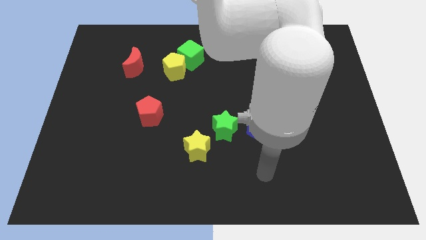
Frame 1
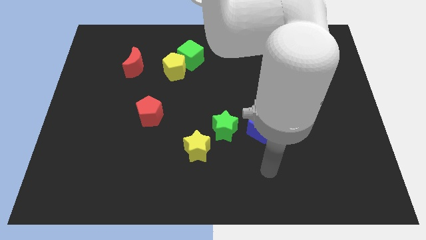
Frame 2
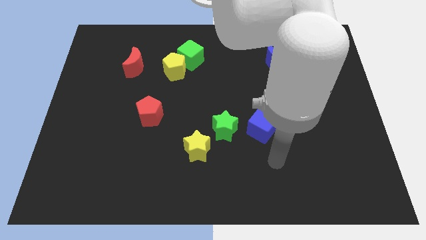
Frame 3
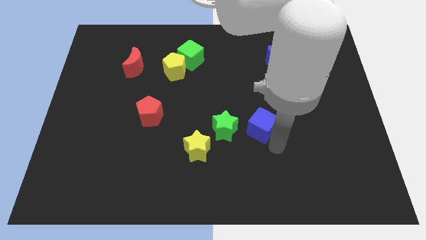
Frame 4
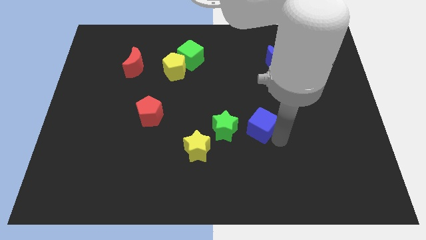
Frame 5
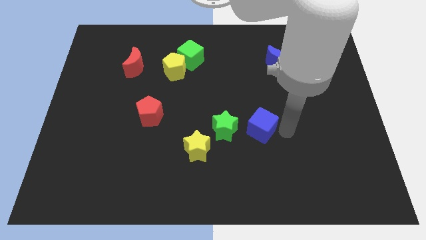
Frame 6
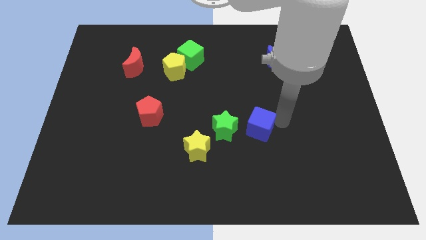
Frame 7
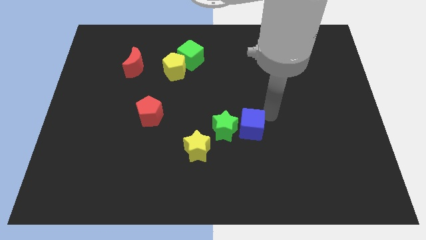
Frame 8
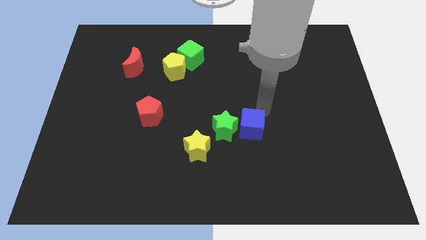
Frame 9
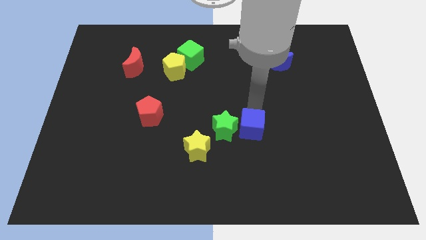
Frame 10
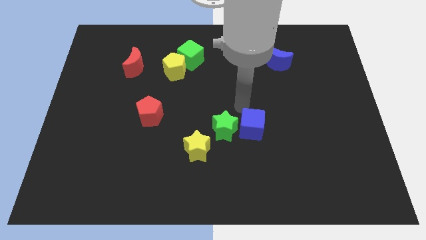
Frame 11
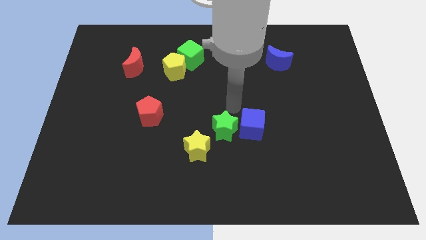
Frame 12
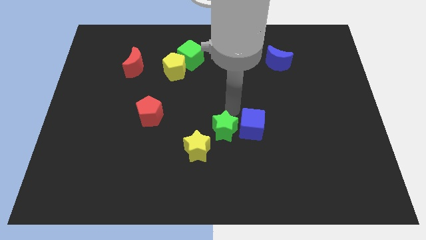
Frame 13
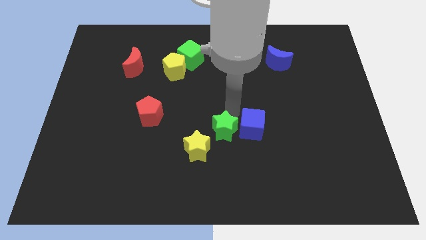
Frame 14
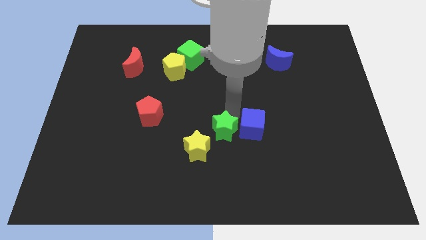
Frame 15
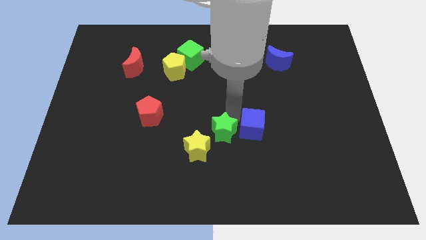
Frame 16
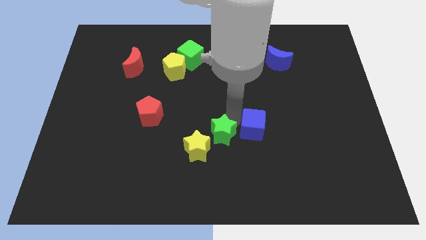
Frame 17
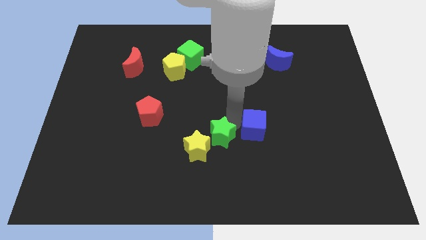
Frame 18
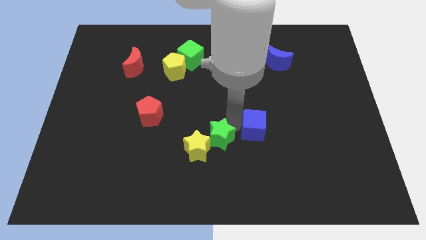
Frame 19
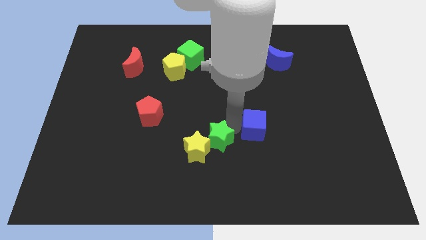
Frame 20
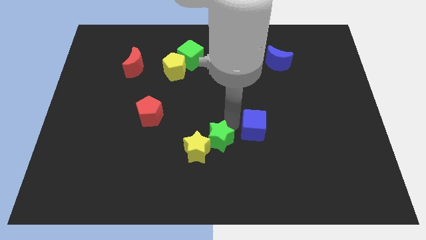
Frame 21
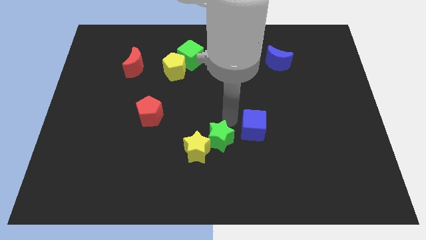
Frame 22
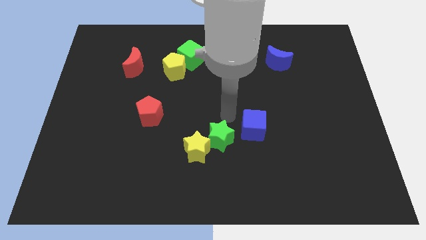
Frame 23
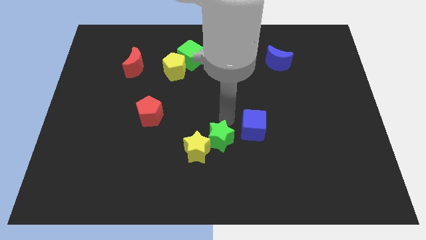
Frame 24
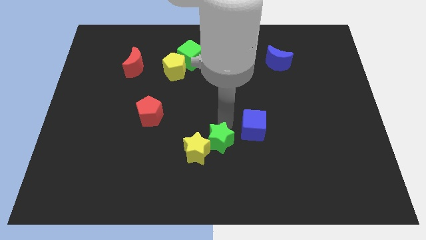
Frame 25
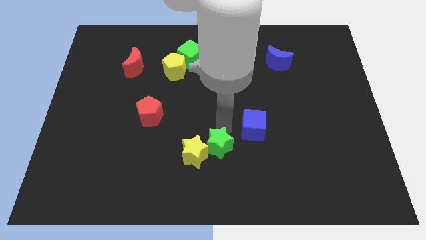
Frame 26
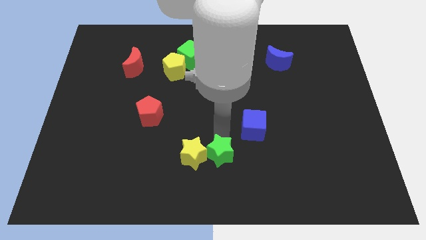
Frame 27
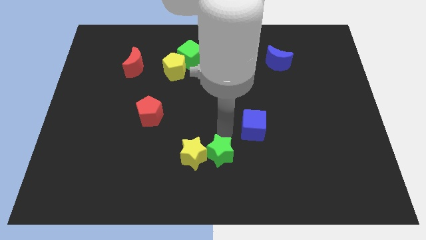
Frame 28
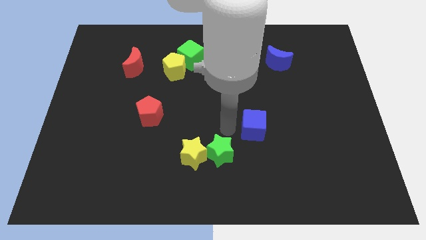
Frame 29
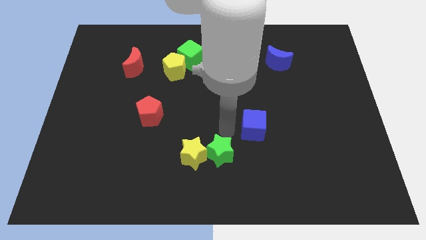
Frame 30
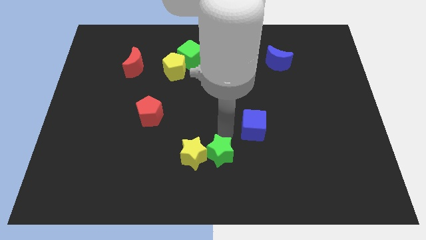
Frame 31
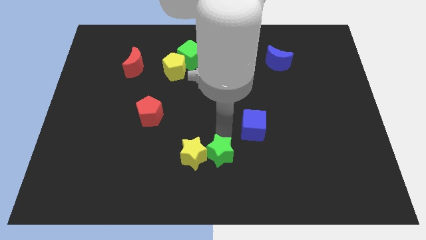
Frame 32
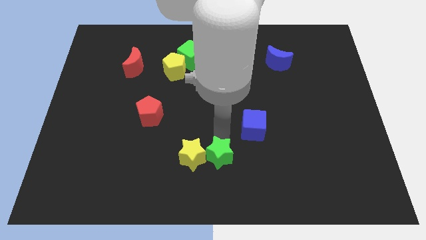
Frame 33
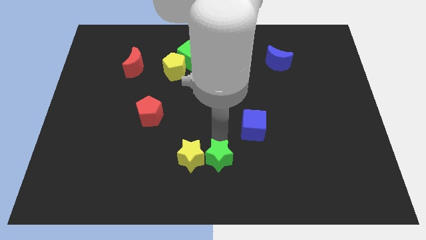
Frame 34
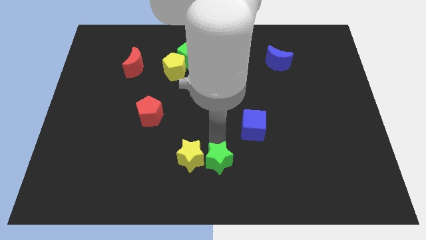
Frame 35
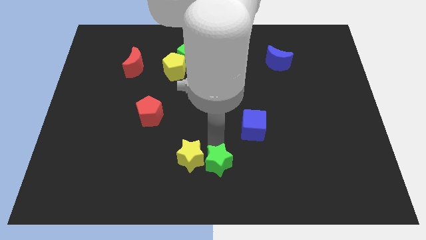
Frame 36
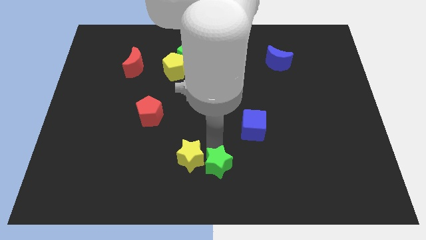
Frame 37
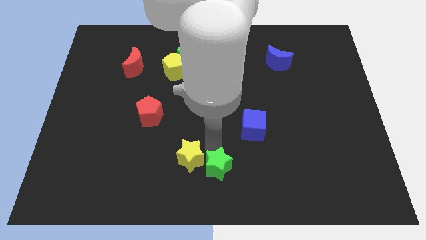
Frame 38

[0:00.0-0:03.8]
slightly push the green star downwards and then left

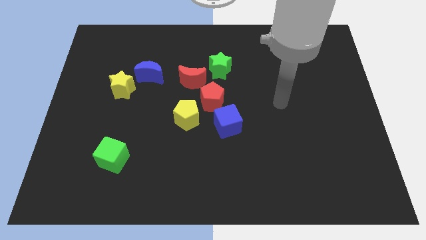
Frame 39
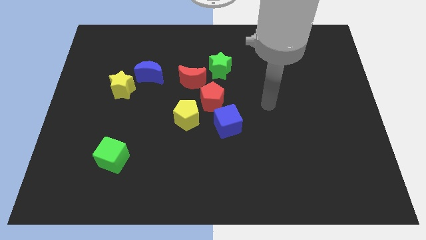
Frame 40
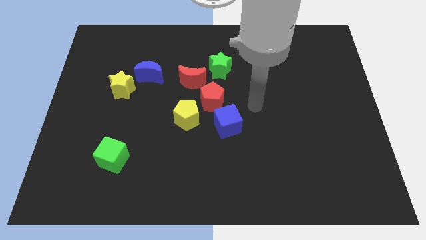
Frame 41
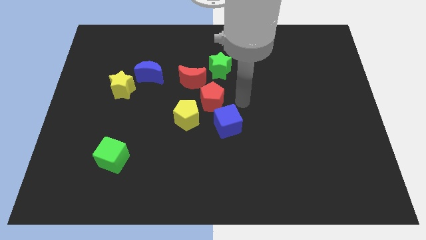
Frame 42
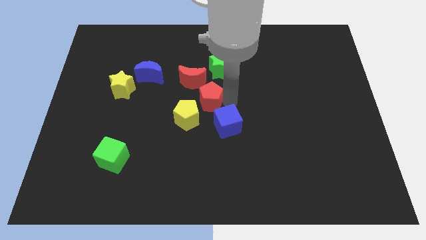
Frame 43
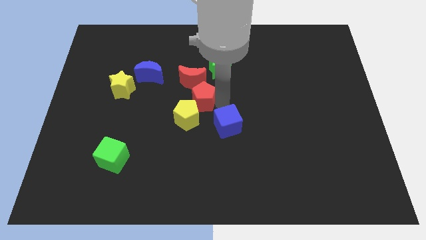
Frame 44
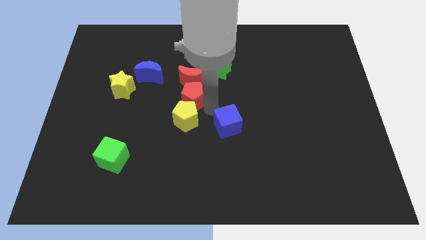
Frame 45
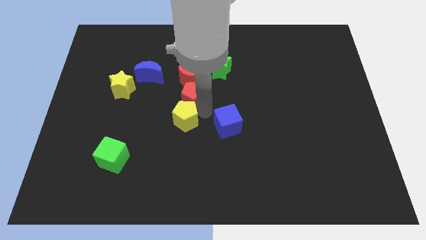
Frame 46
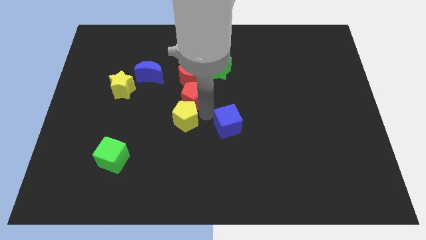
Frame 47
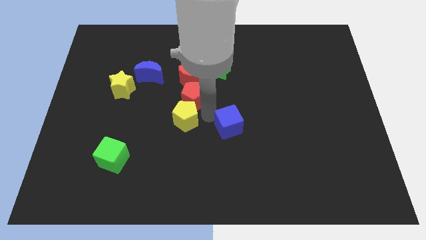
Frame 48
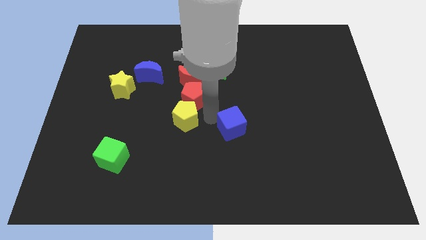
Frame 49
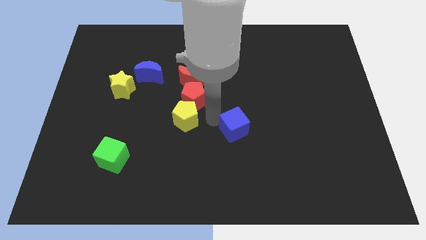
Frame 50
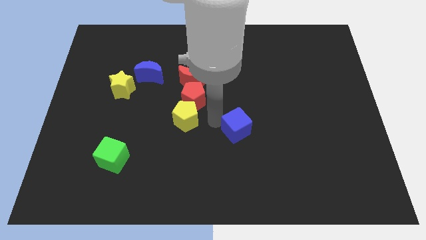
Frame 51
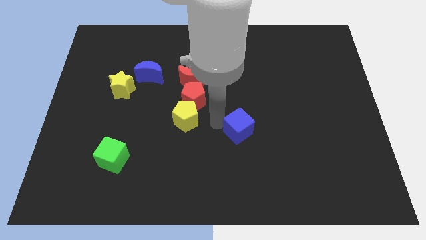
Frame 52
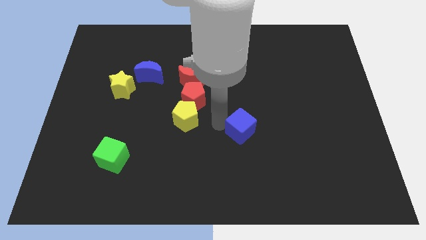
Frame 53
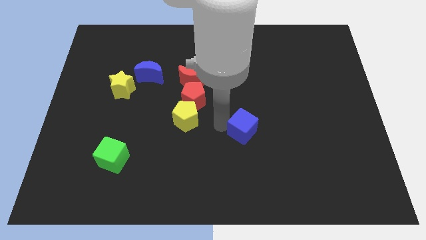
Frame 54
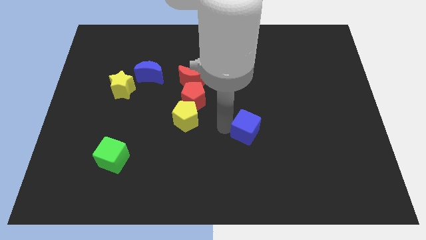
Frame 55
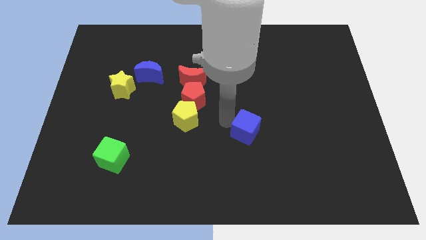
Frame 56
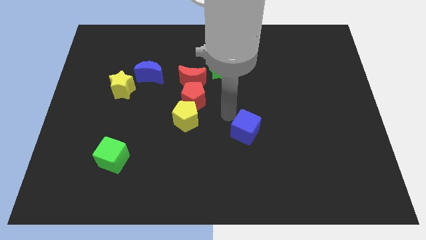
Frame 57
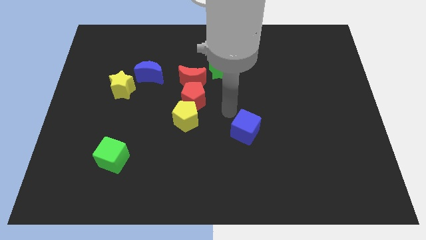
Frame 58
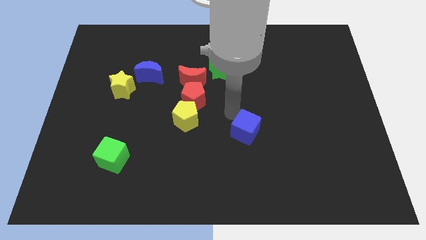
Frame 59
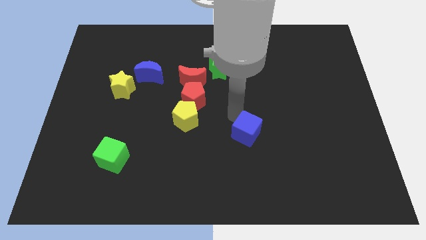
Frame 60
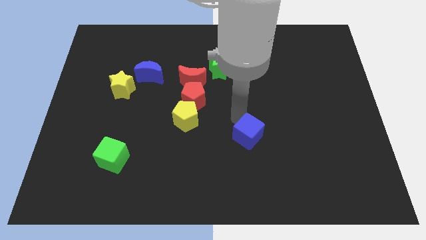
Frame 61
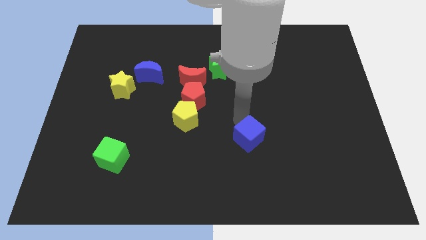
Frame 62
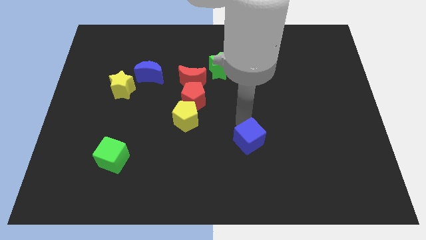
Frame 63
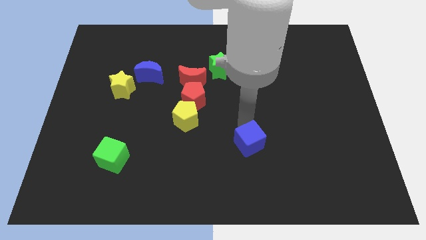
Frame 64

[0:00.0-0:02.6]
push the blue cube slightly down and right diagonally

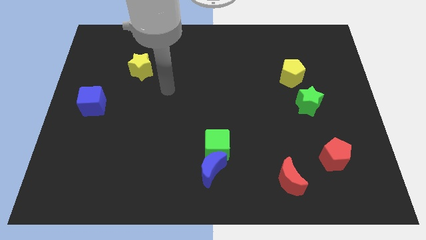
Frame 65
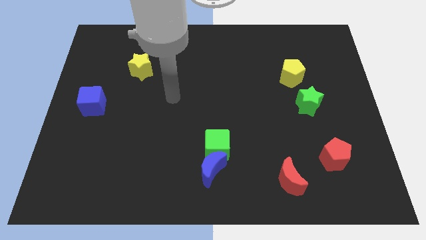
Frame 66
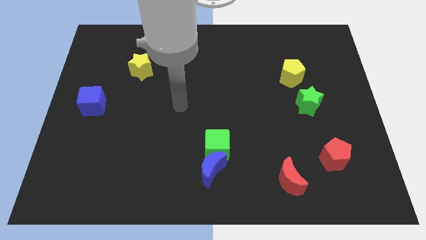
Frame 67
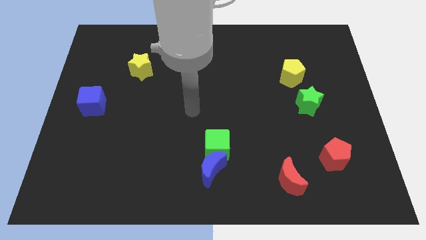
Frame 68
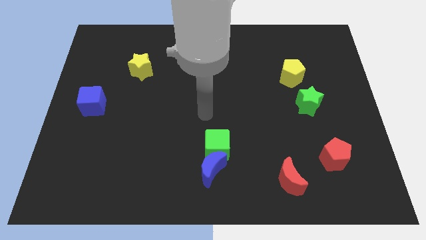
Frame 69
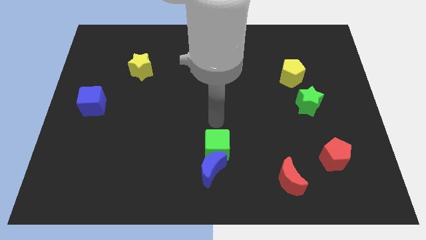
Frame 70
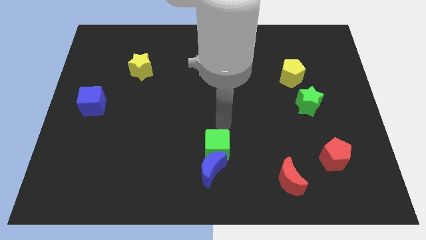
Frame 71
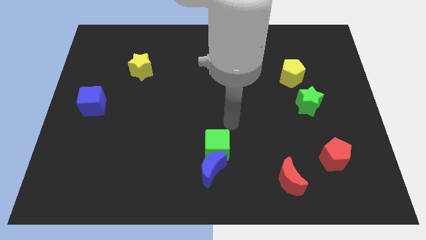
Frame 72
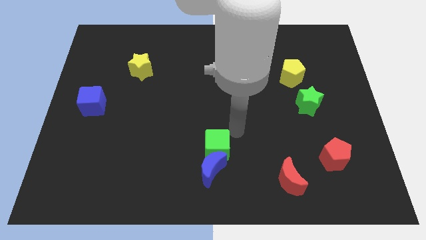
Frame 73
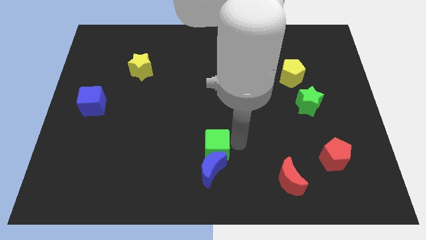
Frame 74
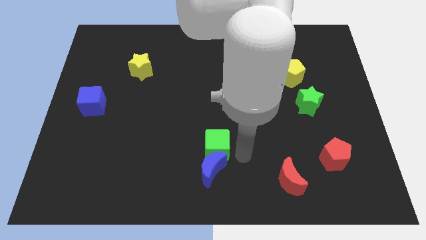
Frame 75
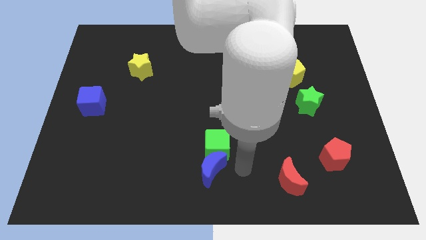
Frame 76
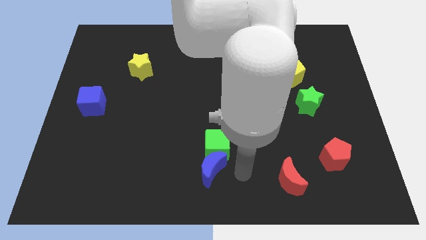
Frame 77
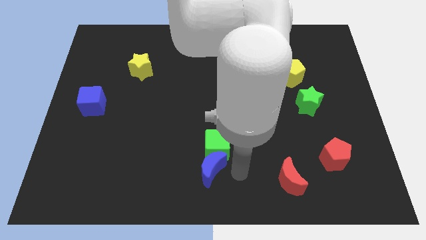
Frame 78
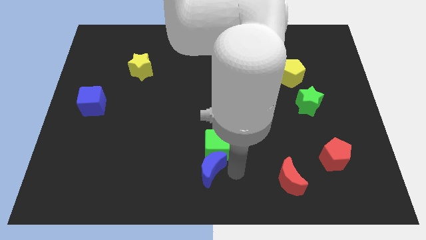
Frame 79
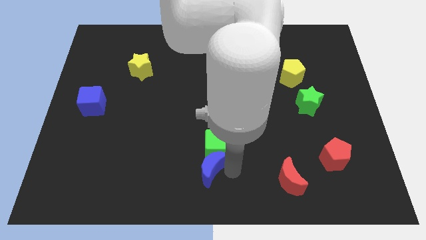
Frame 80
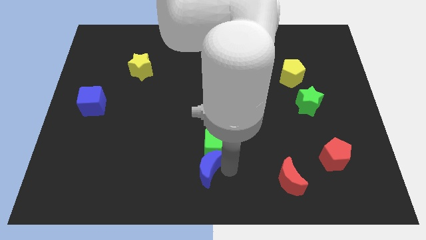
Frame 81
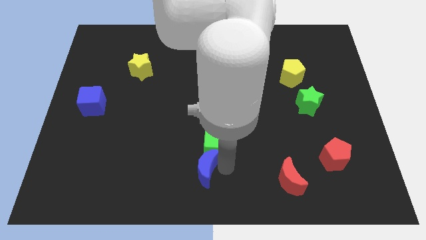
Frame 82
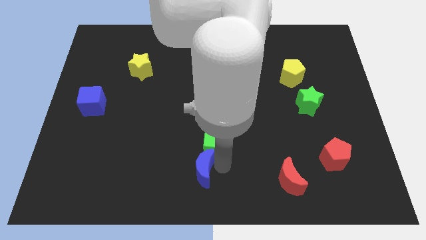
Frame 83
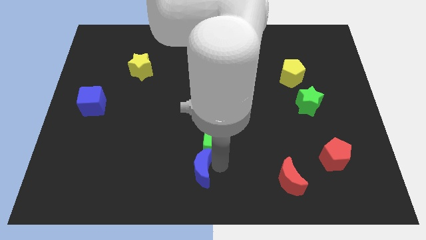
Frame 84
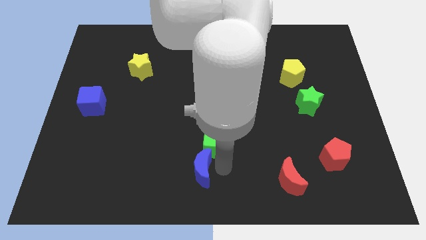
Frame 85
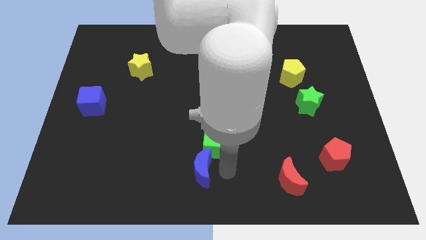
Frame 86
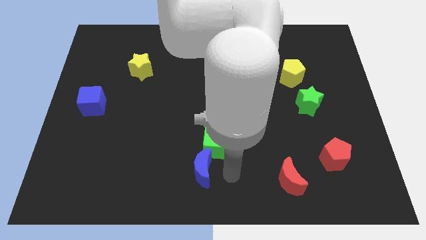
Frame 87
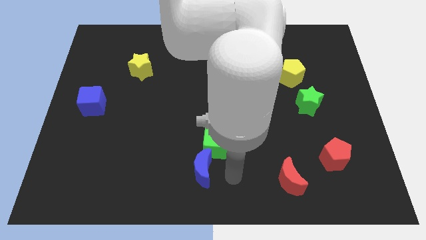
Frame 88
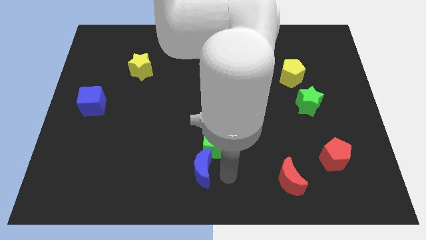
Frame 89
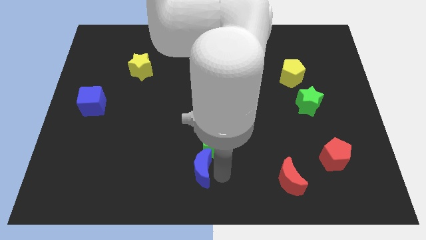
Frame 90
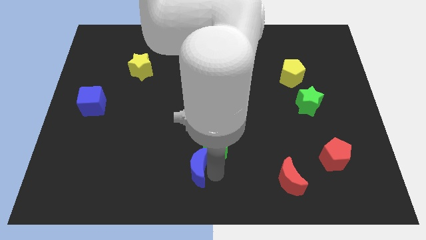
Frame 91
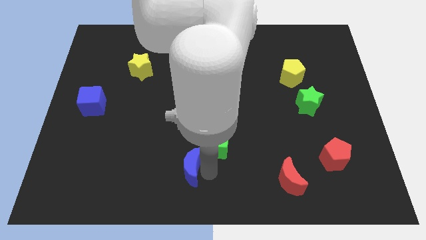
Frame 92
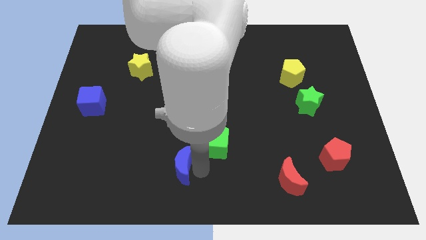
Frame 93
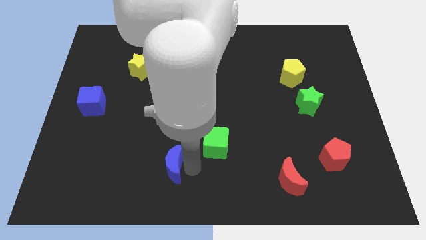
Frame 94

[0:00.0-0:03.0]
slide the blue moon a little left
